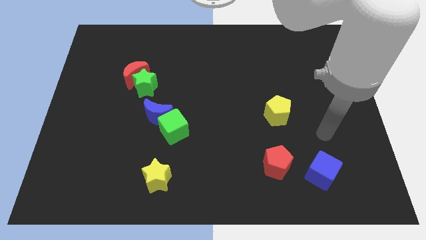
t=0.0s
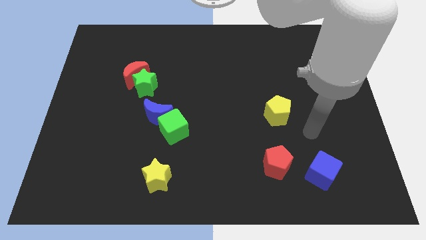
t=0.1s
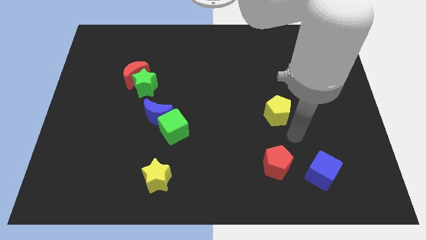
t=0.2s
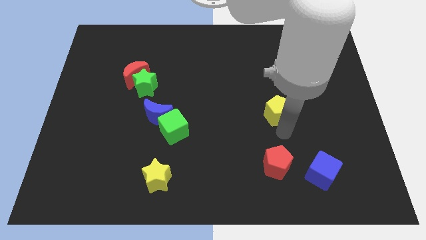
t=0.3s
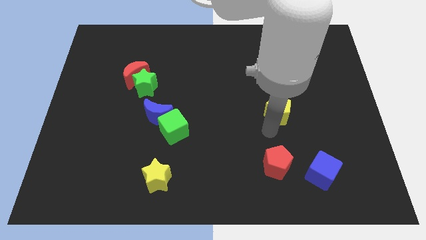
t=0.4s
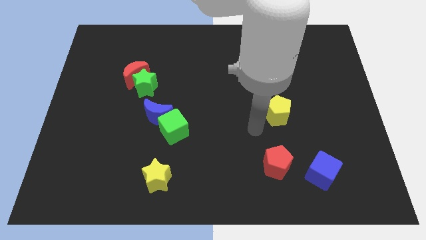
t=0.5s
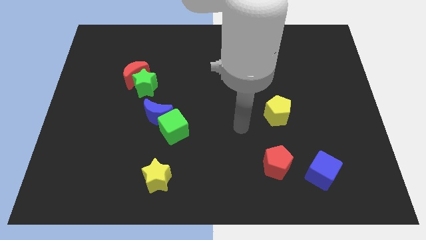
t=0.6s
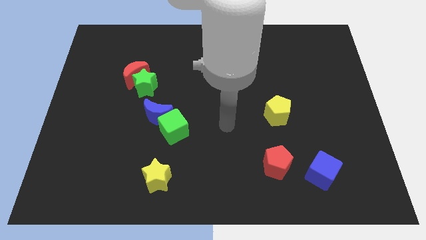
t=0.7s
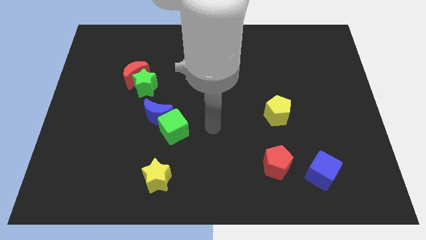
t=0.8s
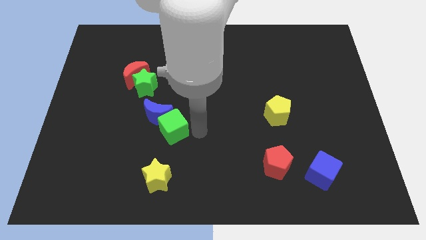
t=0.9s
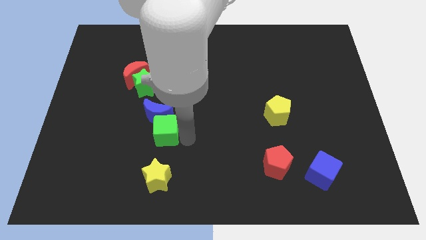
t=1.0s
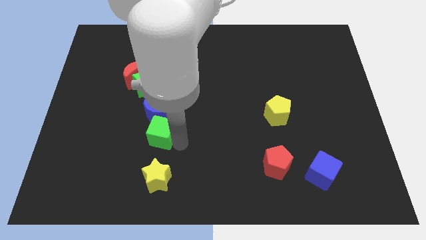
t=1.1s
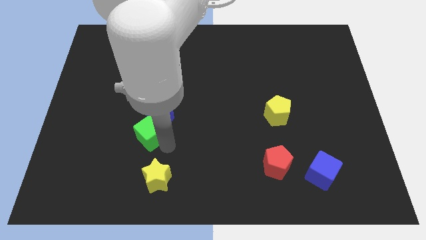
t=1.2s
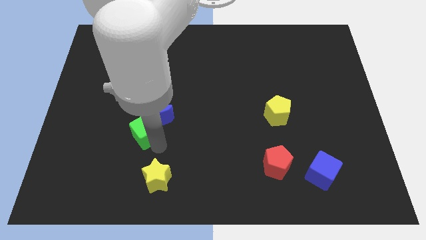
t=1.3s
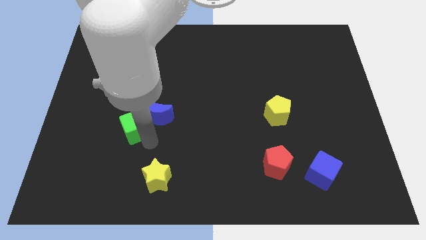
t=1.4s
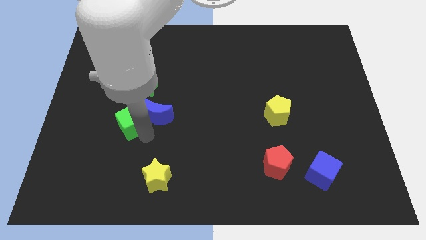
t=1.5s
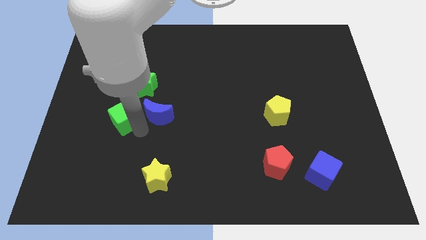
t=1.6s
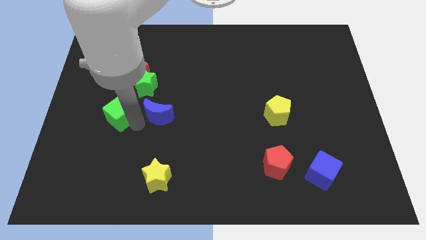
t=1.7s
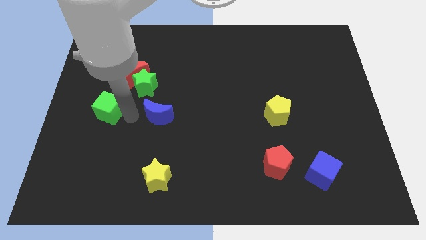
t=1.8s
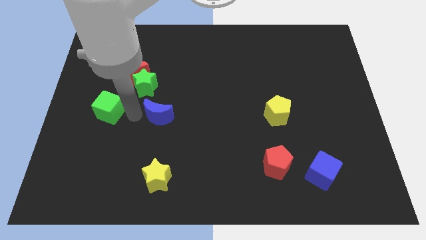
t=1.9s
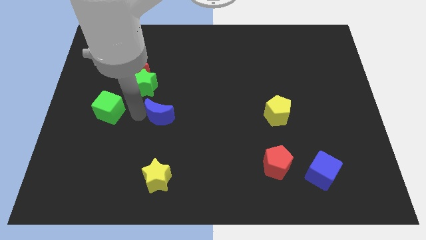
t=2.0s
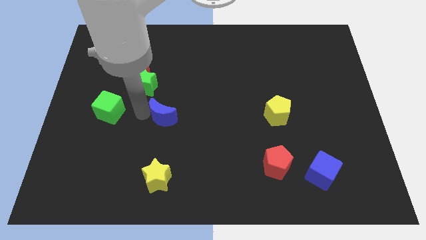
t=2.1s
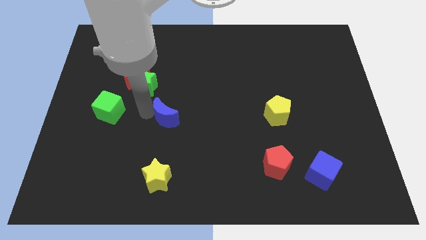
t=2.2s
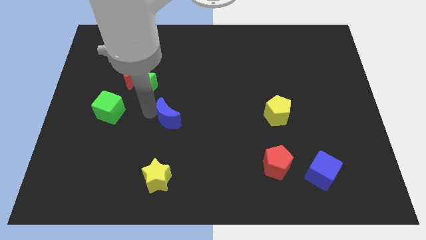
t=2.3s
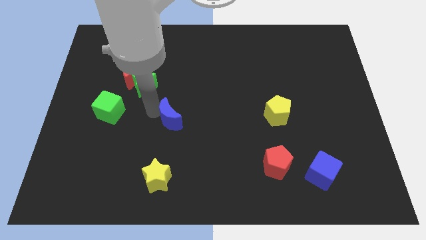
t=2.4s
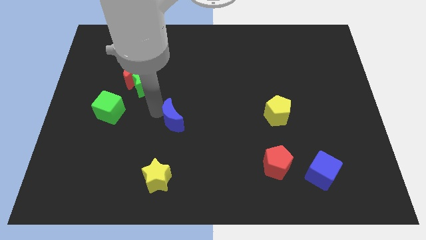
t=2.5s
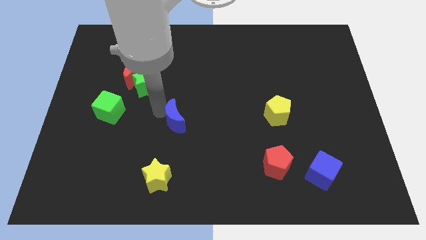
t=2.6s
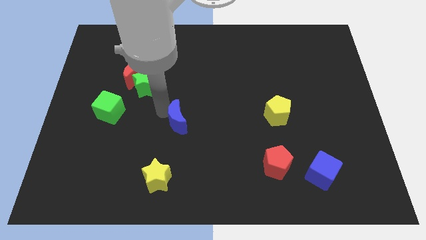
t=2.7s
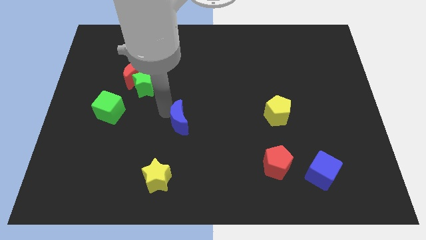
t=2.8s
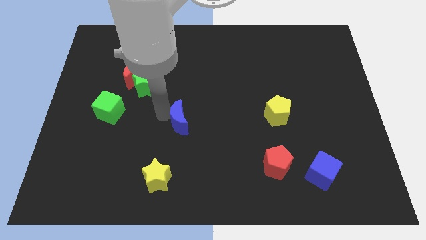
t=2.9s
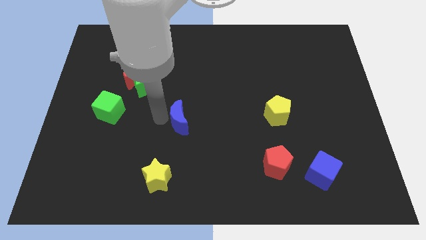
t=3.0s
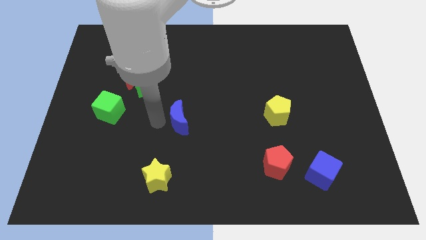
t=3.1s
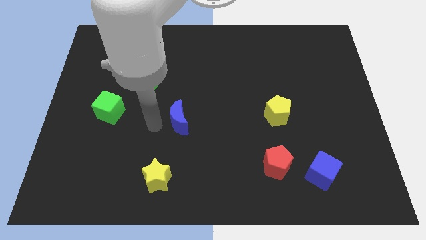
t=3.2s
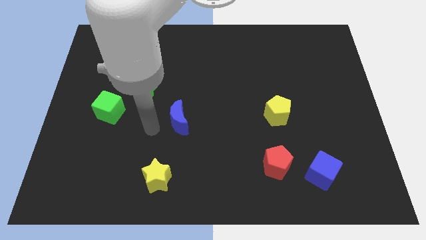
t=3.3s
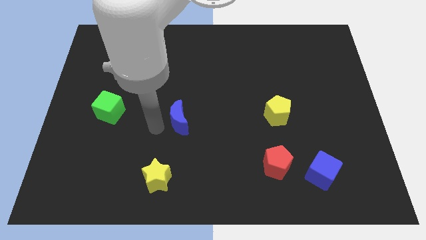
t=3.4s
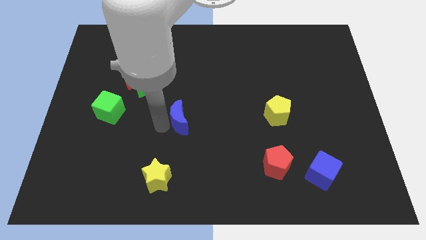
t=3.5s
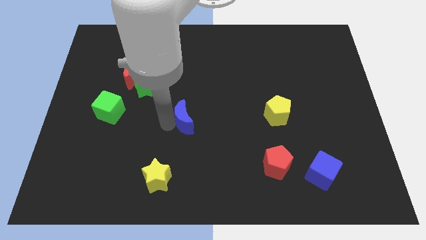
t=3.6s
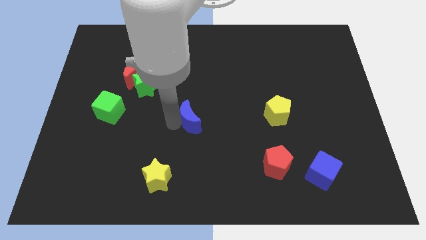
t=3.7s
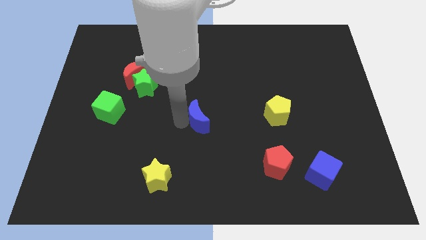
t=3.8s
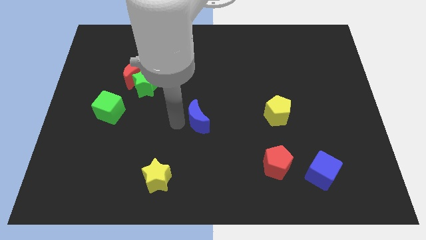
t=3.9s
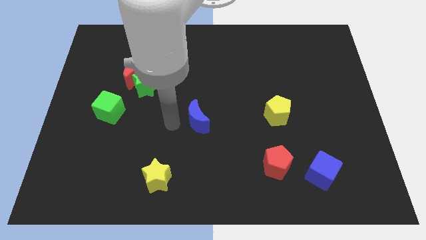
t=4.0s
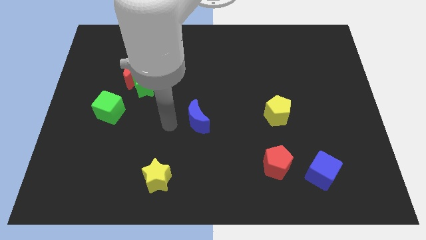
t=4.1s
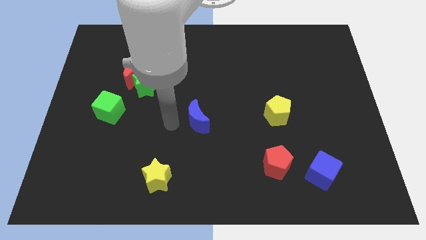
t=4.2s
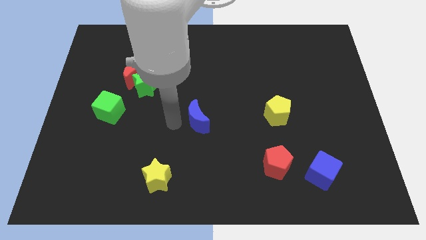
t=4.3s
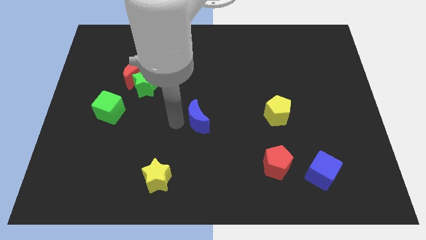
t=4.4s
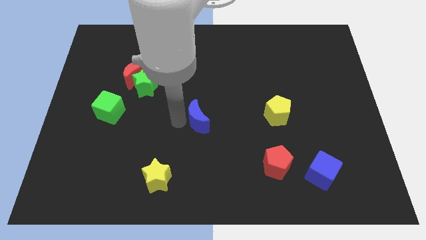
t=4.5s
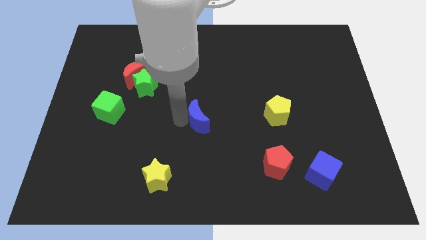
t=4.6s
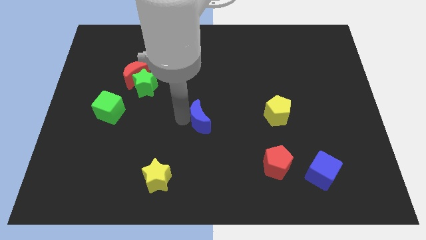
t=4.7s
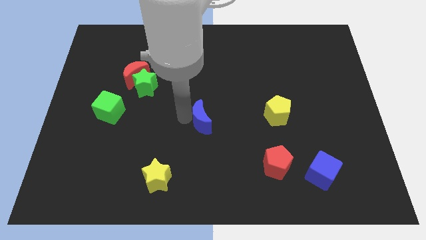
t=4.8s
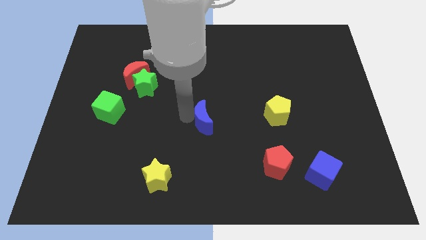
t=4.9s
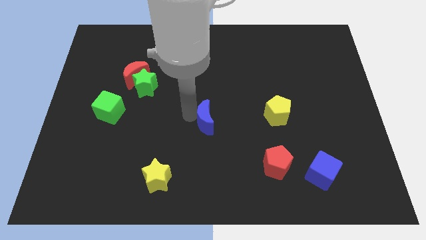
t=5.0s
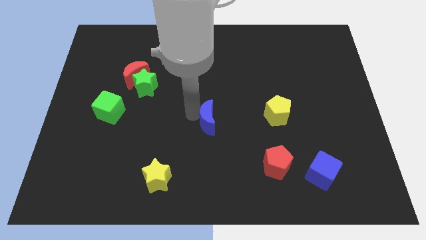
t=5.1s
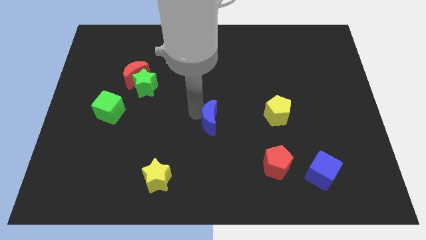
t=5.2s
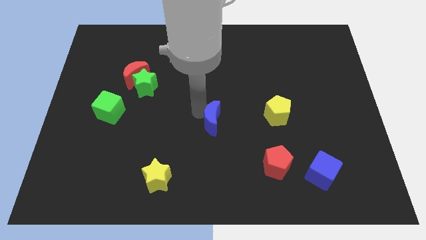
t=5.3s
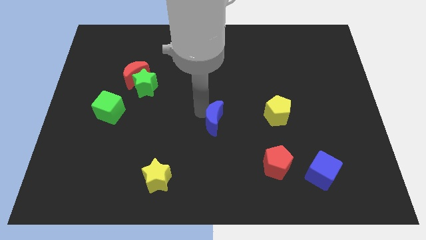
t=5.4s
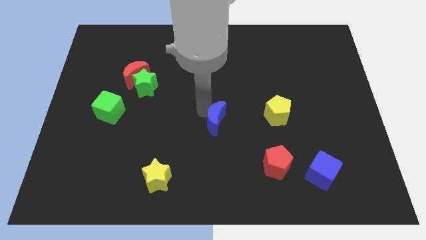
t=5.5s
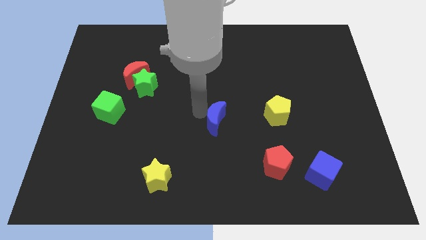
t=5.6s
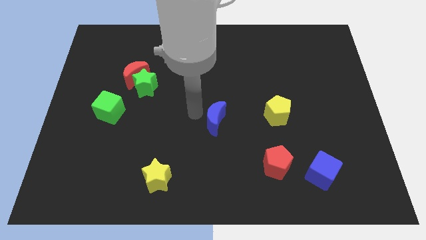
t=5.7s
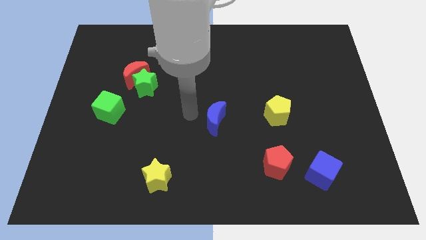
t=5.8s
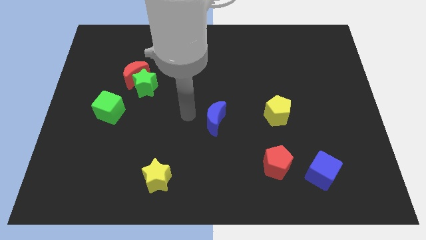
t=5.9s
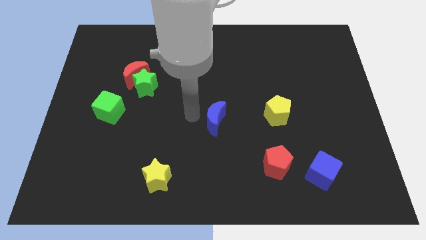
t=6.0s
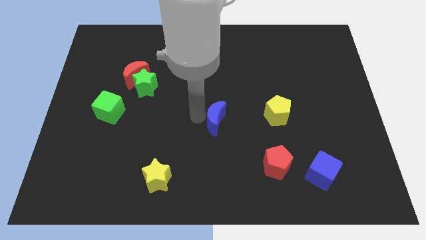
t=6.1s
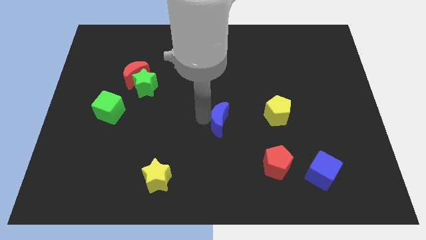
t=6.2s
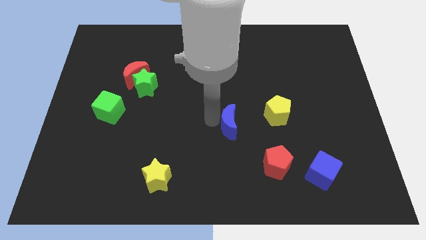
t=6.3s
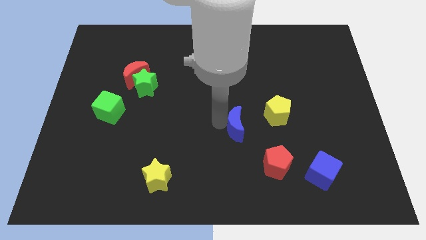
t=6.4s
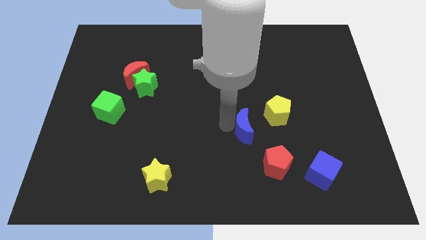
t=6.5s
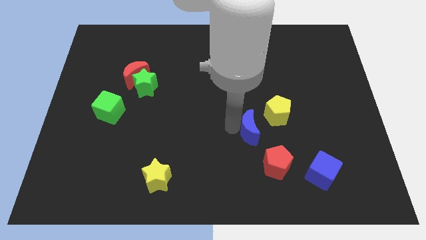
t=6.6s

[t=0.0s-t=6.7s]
move the blue moon right

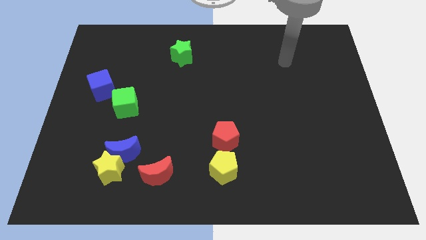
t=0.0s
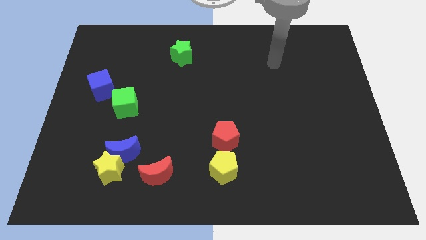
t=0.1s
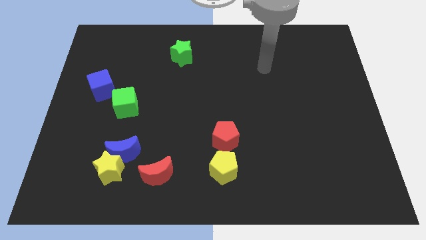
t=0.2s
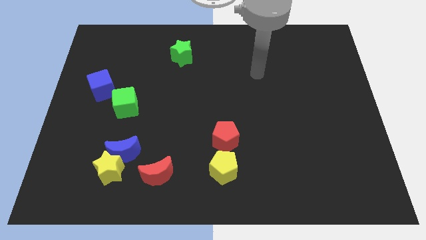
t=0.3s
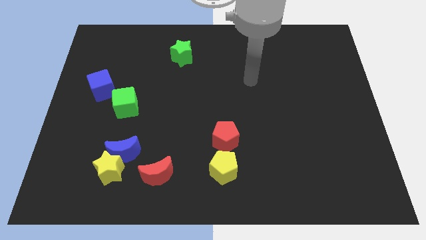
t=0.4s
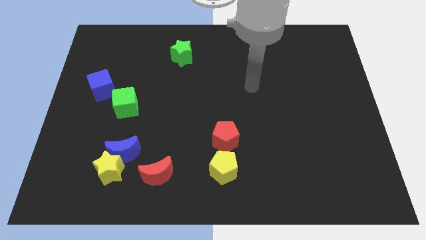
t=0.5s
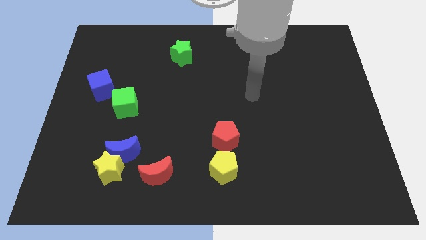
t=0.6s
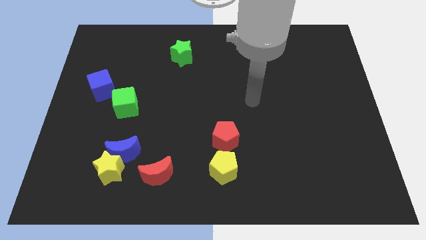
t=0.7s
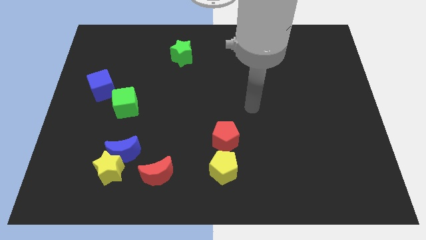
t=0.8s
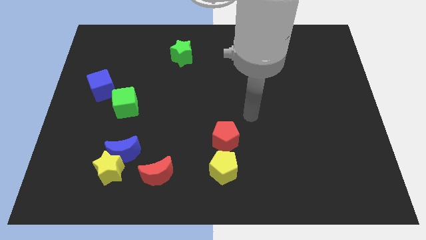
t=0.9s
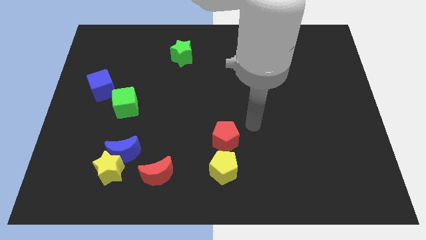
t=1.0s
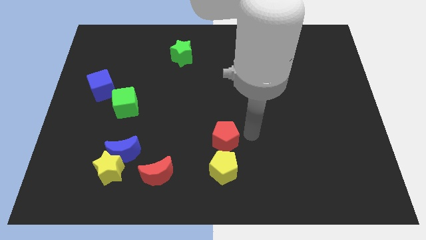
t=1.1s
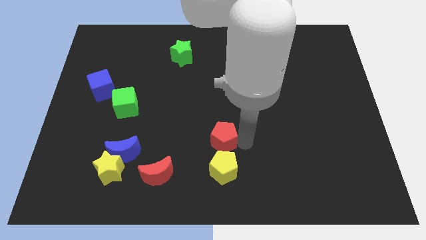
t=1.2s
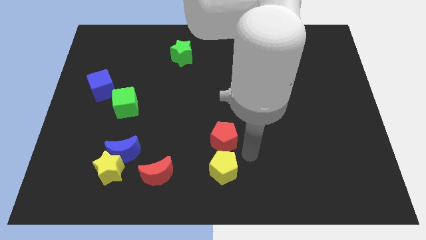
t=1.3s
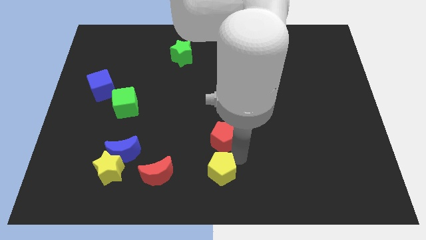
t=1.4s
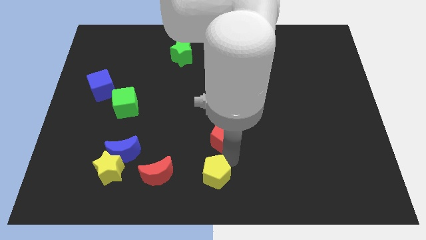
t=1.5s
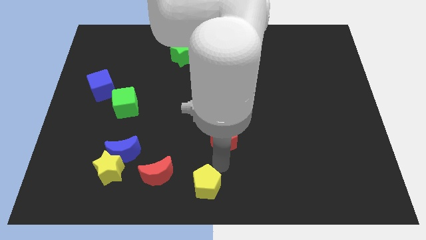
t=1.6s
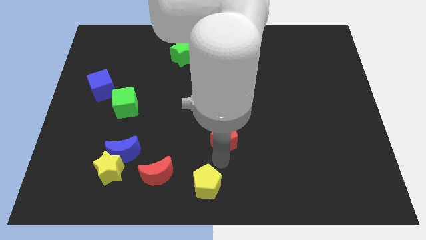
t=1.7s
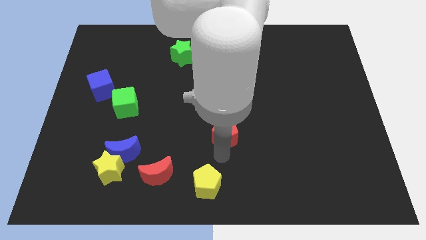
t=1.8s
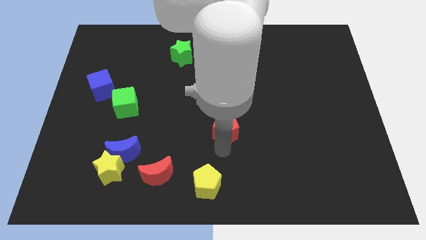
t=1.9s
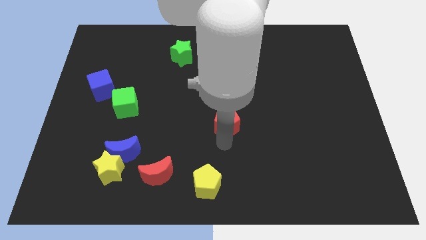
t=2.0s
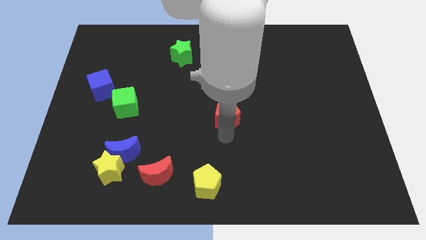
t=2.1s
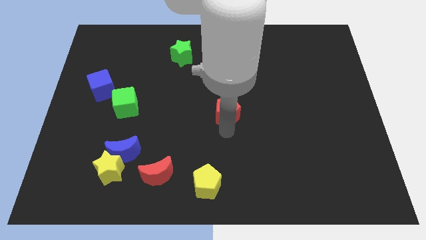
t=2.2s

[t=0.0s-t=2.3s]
slide the red pentagon somewhat up
